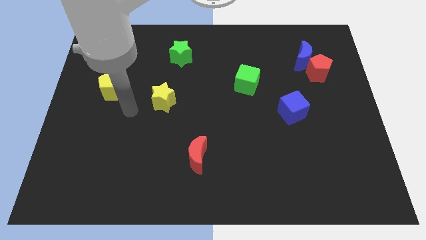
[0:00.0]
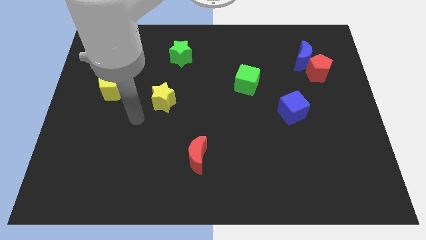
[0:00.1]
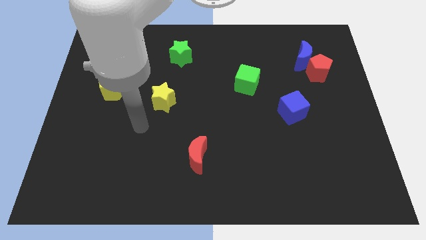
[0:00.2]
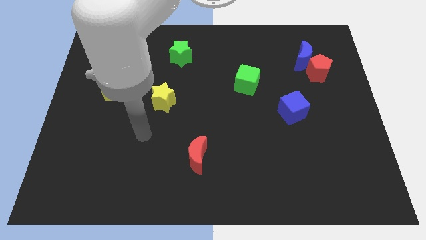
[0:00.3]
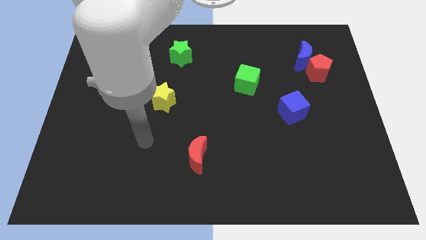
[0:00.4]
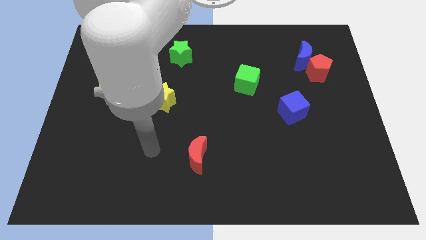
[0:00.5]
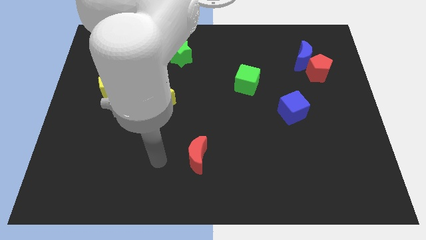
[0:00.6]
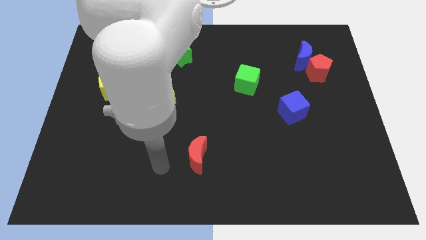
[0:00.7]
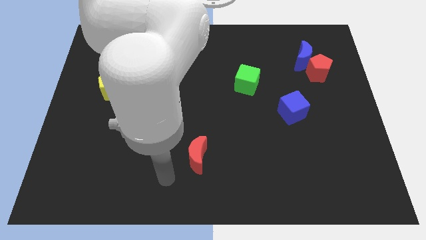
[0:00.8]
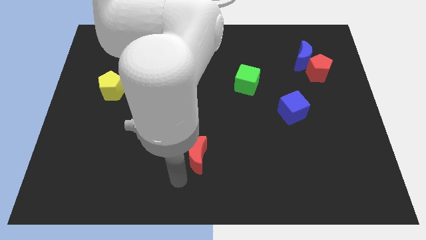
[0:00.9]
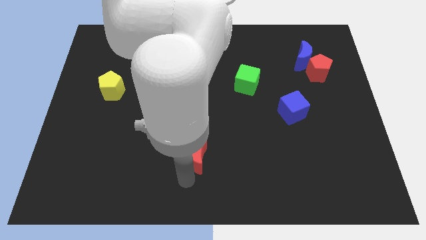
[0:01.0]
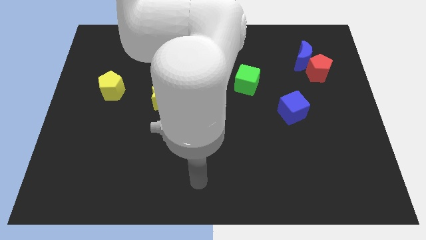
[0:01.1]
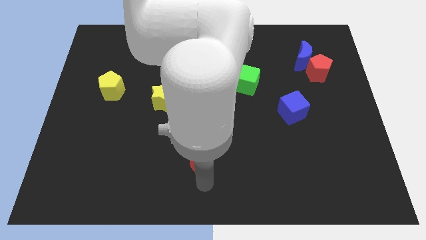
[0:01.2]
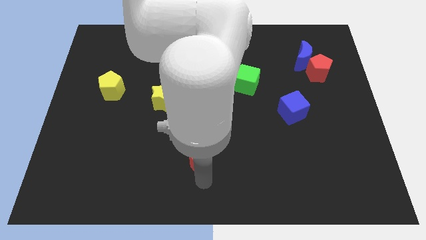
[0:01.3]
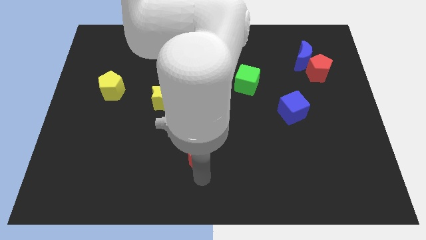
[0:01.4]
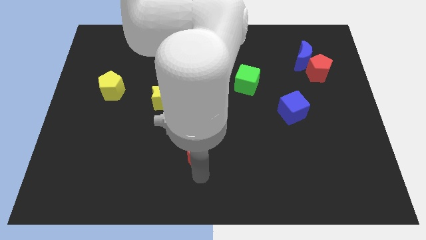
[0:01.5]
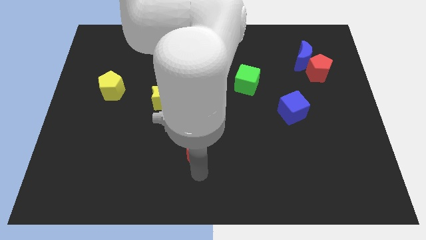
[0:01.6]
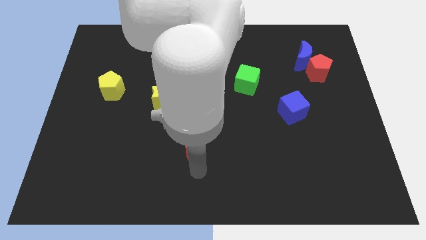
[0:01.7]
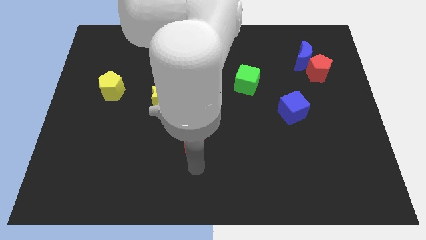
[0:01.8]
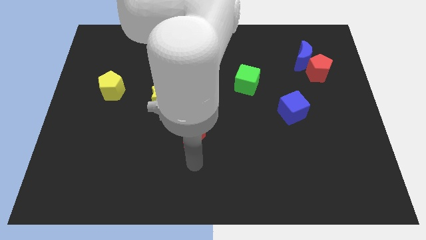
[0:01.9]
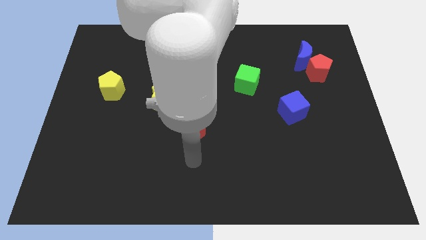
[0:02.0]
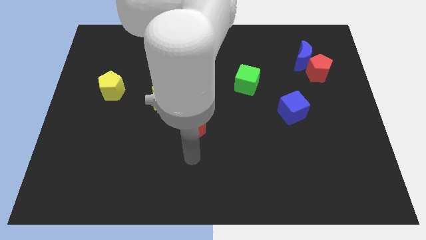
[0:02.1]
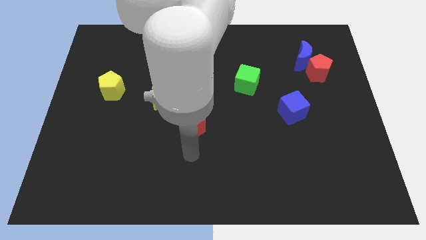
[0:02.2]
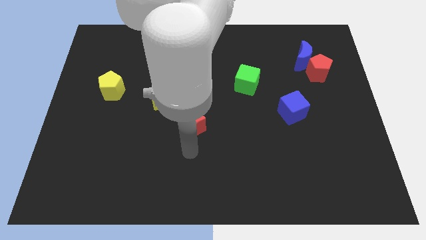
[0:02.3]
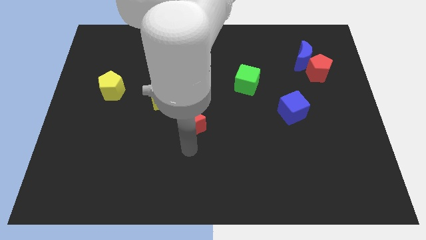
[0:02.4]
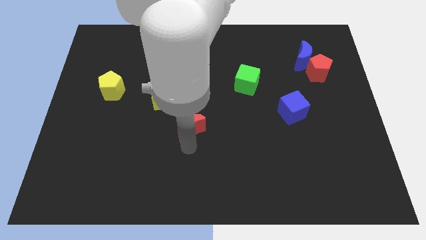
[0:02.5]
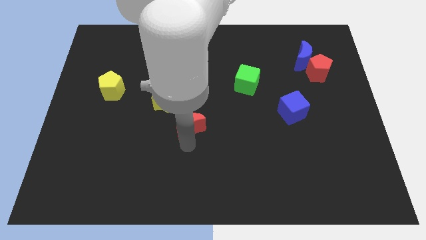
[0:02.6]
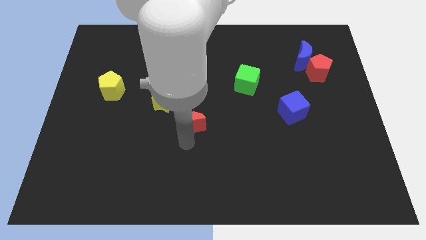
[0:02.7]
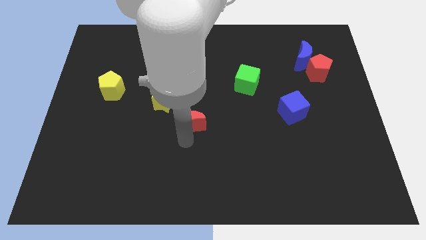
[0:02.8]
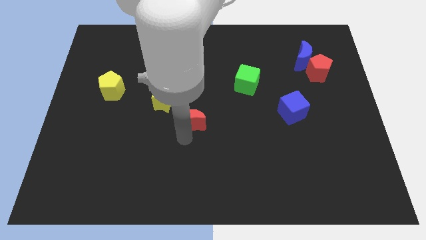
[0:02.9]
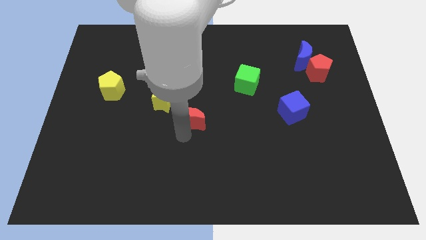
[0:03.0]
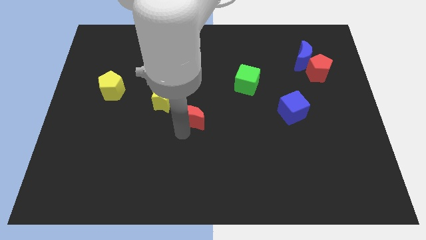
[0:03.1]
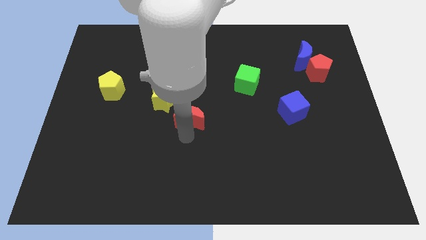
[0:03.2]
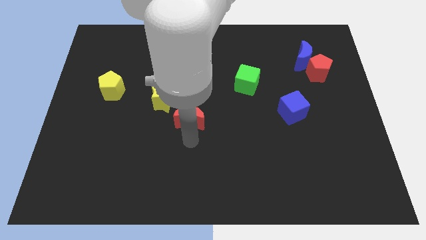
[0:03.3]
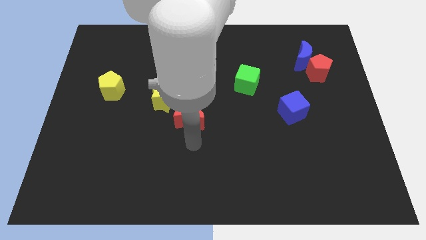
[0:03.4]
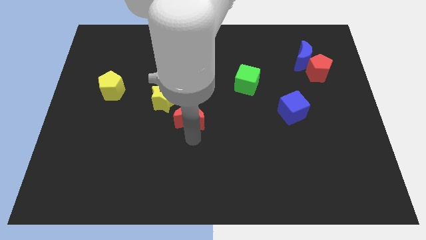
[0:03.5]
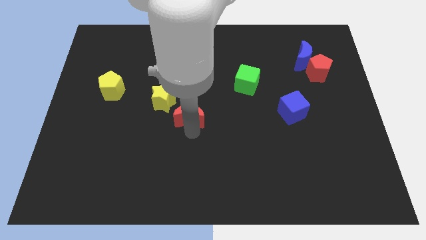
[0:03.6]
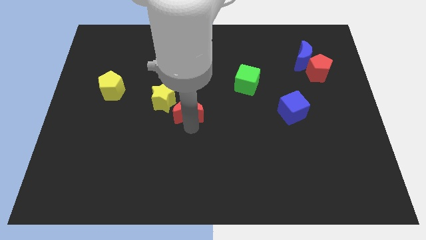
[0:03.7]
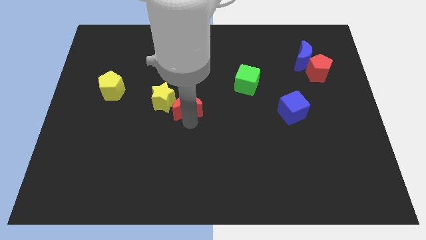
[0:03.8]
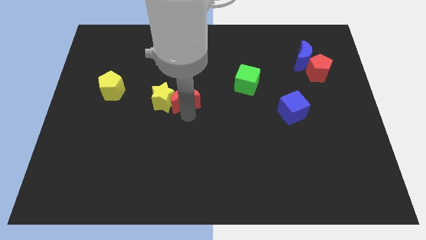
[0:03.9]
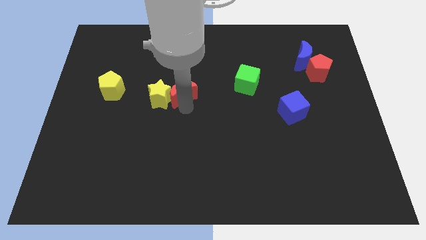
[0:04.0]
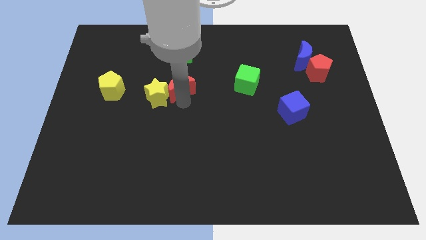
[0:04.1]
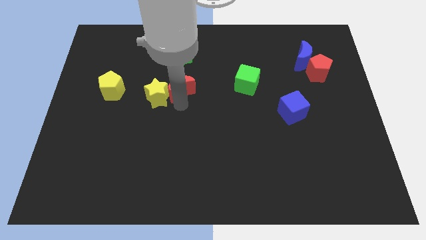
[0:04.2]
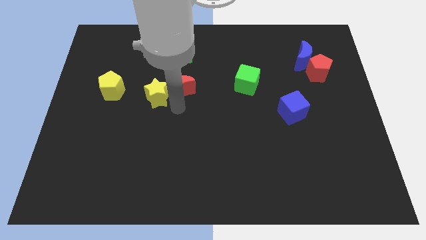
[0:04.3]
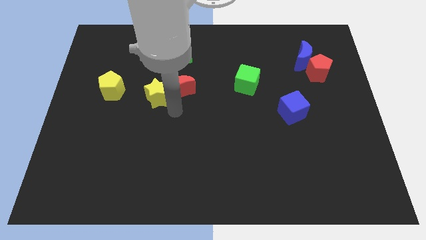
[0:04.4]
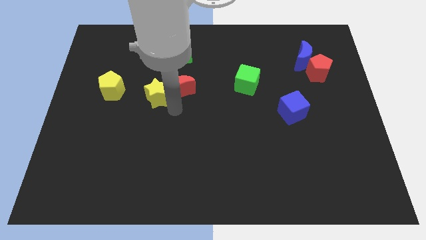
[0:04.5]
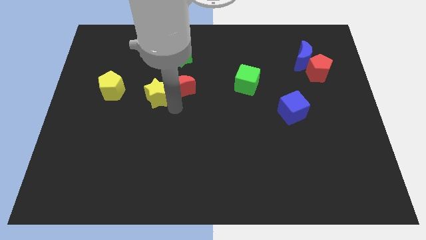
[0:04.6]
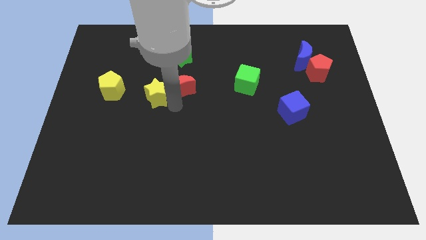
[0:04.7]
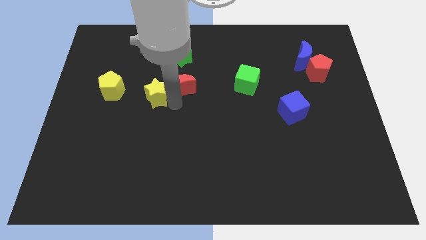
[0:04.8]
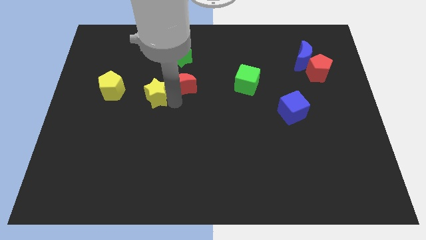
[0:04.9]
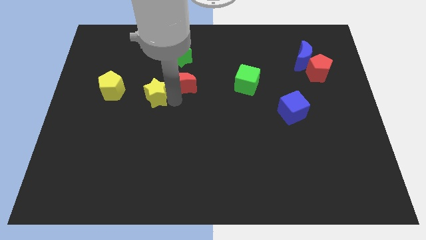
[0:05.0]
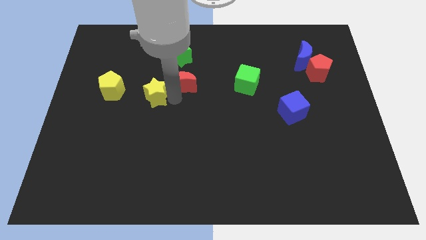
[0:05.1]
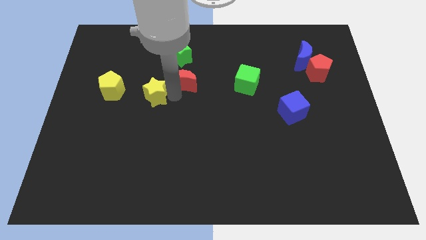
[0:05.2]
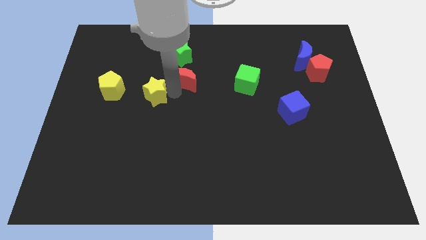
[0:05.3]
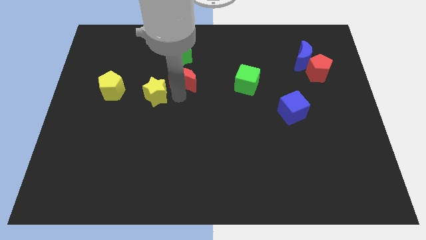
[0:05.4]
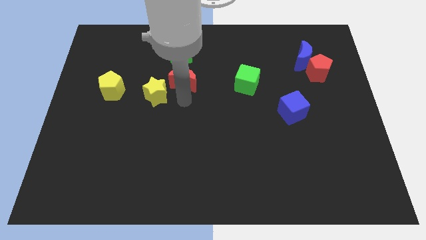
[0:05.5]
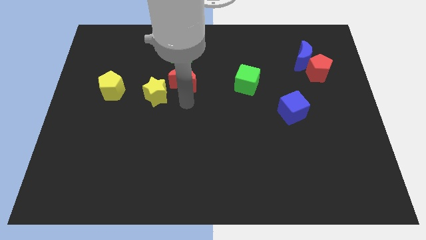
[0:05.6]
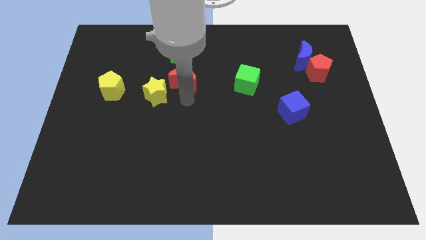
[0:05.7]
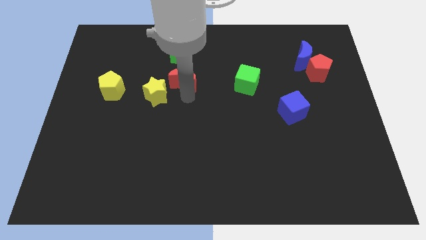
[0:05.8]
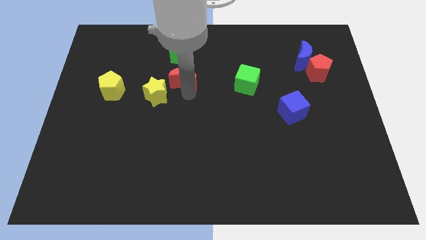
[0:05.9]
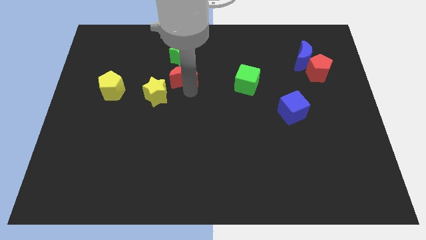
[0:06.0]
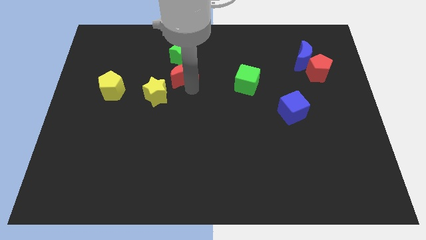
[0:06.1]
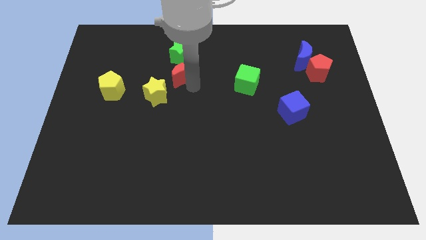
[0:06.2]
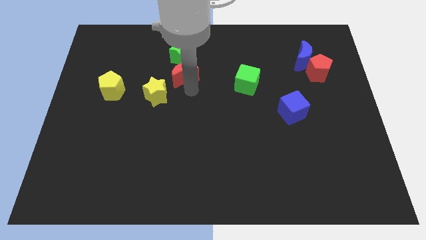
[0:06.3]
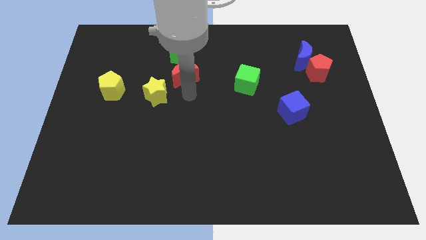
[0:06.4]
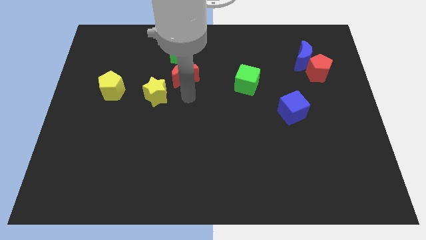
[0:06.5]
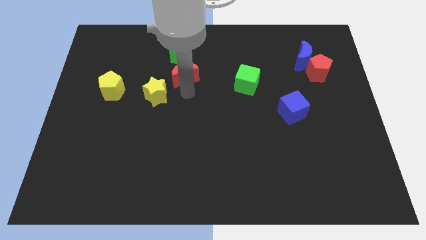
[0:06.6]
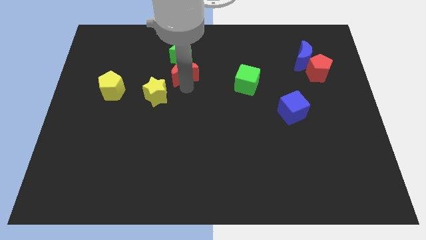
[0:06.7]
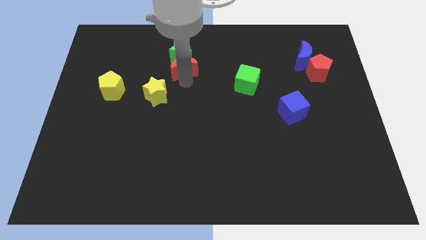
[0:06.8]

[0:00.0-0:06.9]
move the red moon towards the green star
